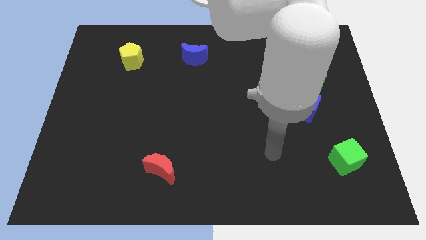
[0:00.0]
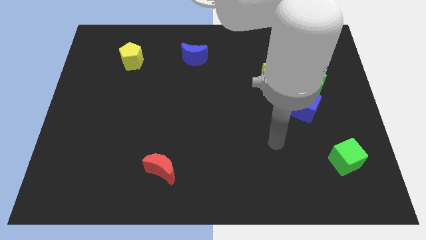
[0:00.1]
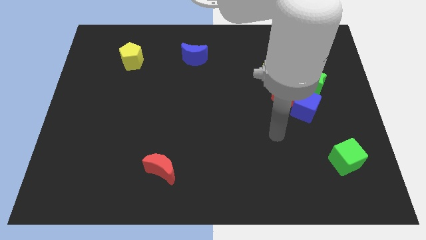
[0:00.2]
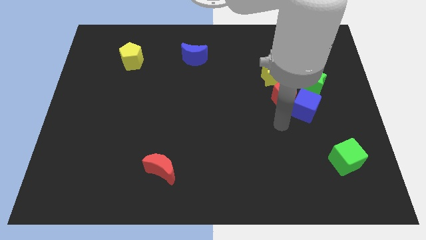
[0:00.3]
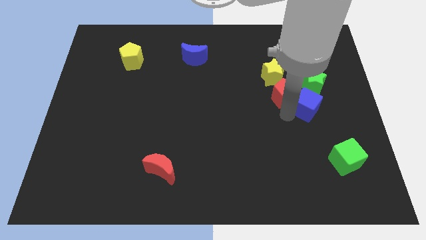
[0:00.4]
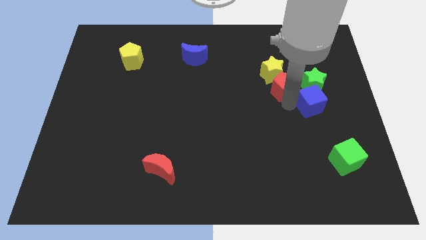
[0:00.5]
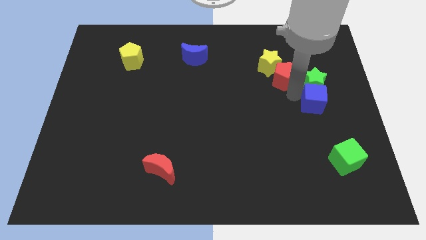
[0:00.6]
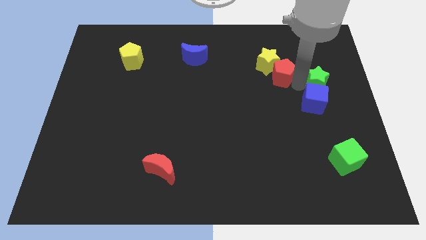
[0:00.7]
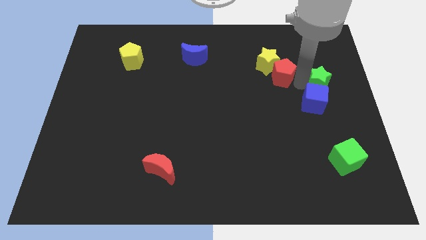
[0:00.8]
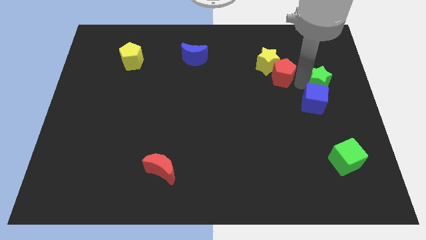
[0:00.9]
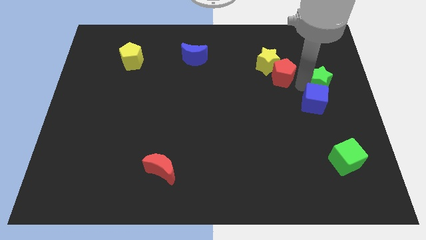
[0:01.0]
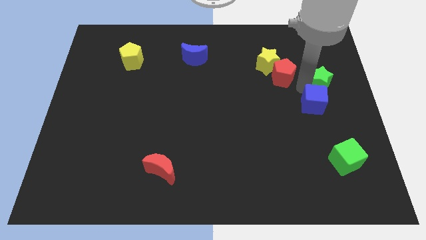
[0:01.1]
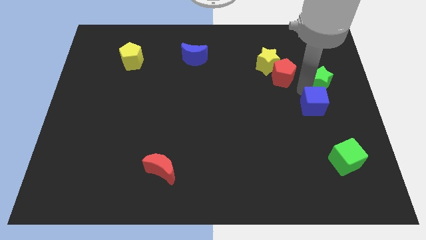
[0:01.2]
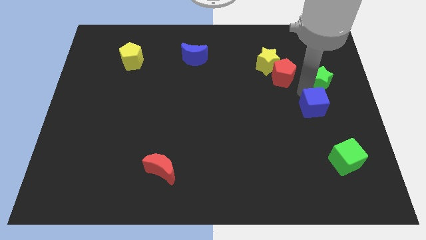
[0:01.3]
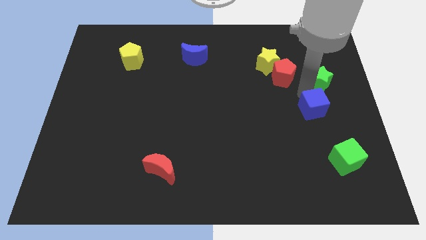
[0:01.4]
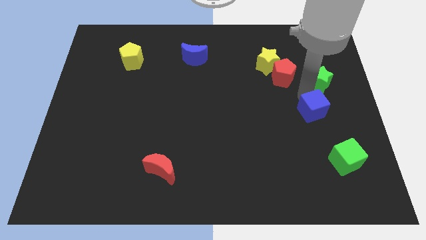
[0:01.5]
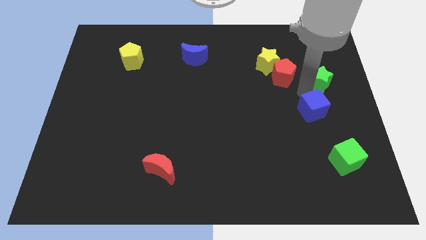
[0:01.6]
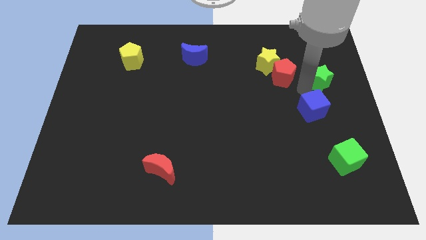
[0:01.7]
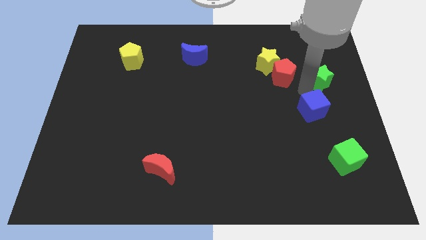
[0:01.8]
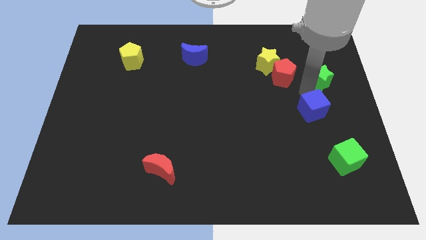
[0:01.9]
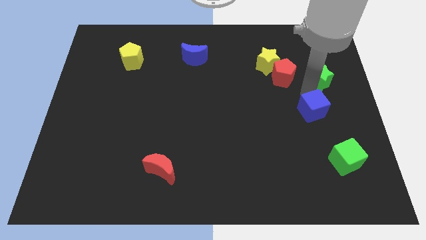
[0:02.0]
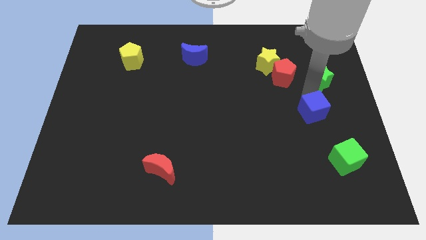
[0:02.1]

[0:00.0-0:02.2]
pull the blue cube apart from the red pentagon and green star

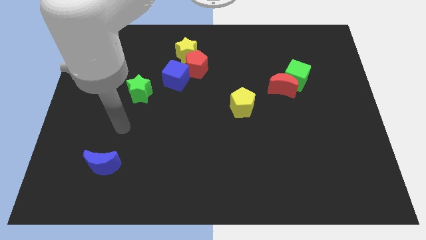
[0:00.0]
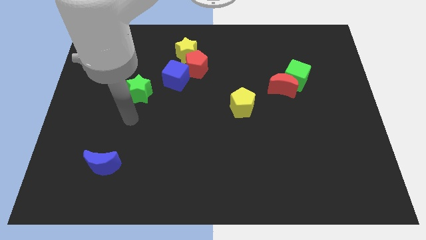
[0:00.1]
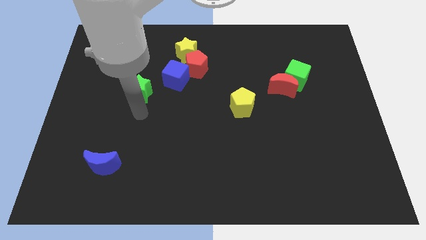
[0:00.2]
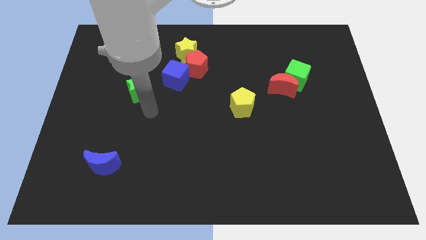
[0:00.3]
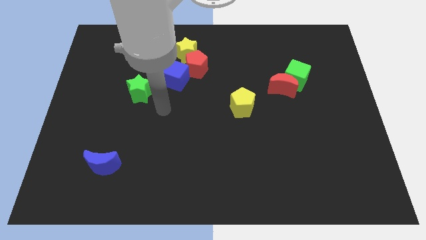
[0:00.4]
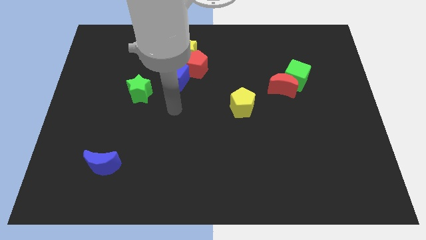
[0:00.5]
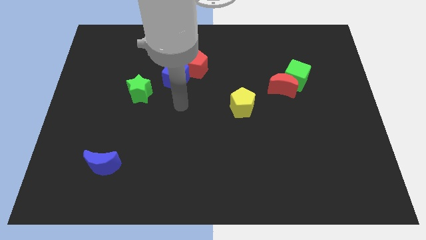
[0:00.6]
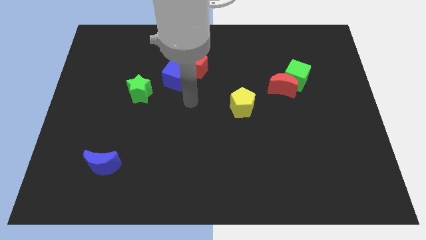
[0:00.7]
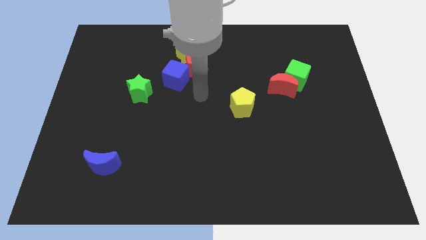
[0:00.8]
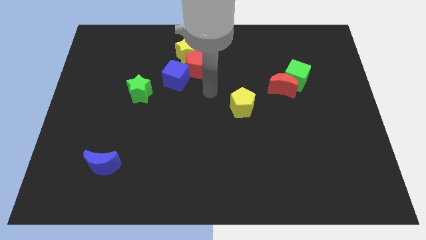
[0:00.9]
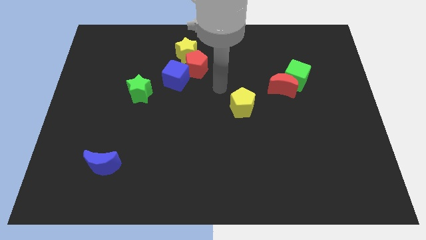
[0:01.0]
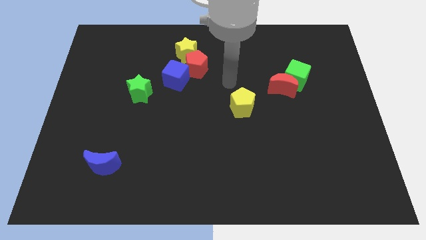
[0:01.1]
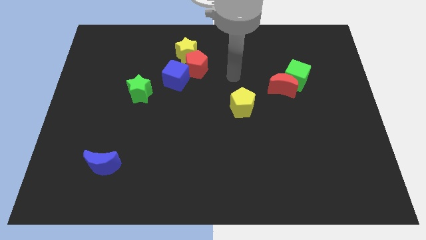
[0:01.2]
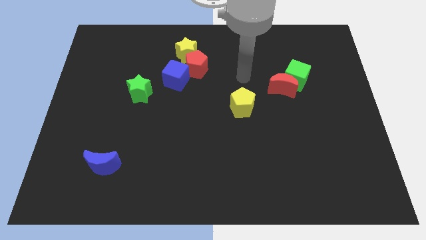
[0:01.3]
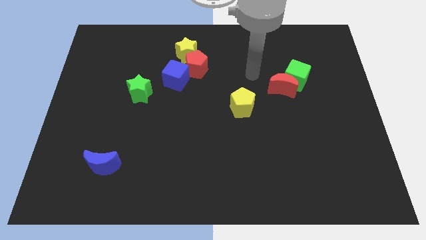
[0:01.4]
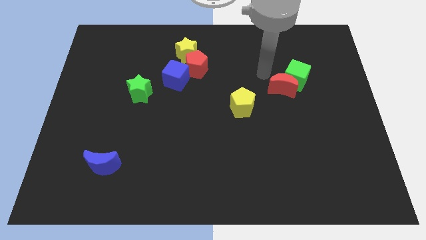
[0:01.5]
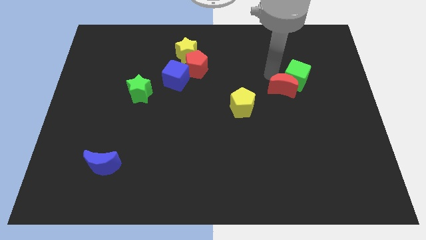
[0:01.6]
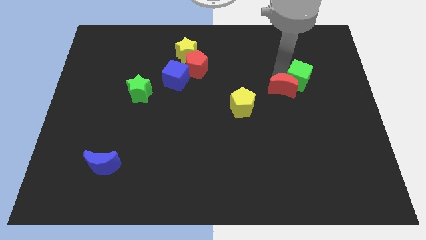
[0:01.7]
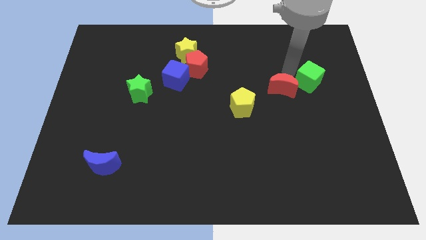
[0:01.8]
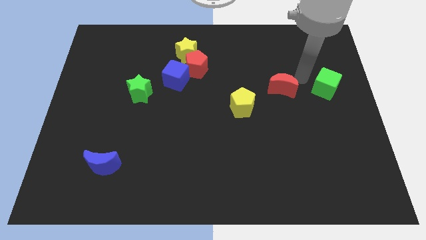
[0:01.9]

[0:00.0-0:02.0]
pull the red moon apart from the green cube

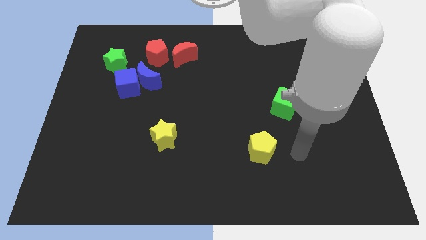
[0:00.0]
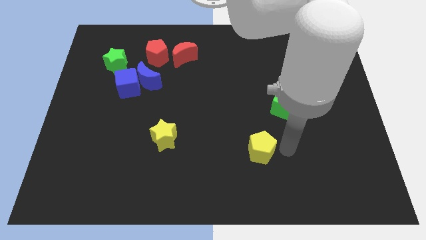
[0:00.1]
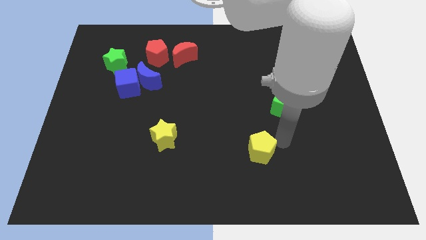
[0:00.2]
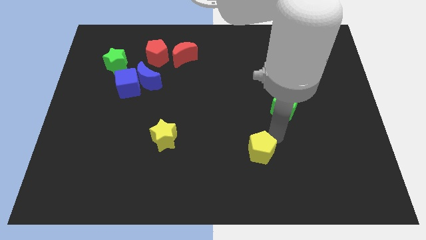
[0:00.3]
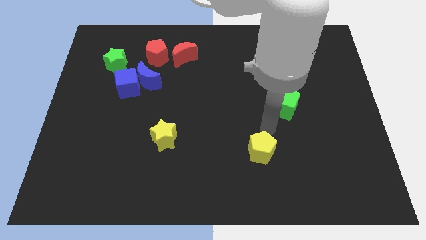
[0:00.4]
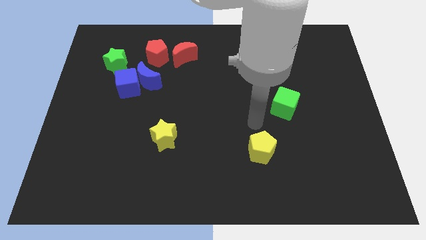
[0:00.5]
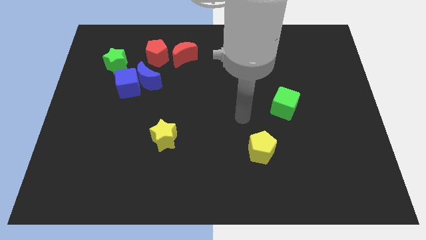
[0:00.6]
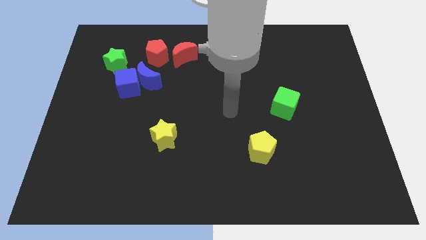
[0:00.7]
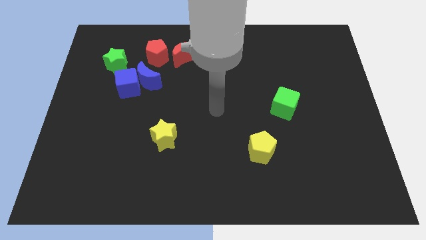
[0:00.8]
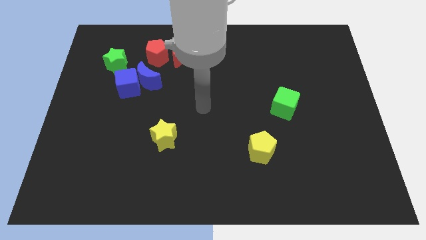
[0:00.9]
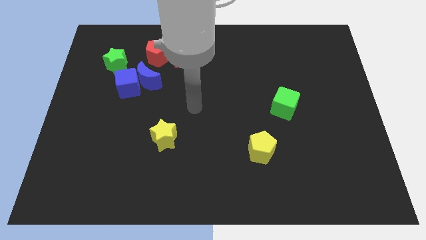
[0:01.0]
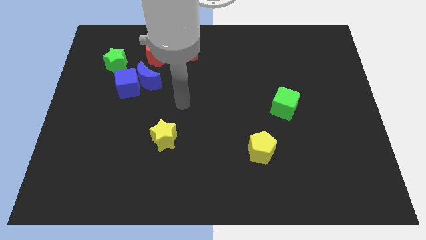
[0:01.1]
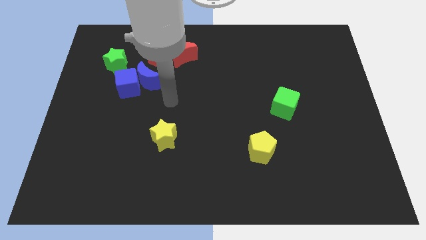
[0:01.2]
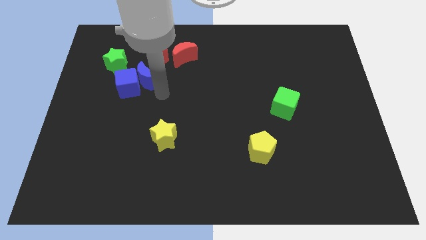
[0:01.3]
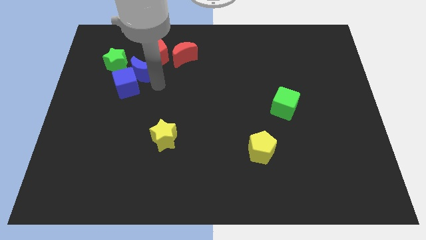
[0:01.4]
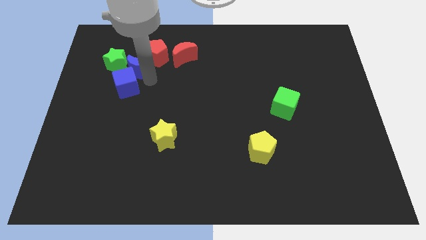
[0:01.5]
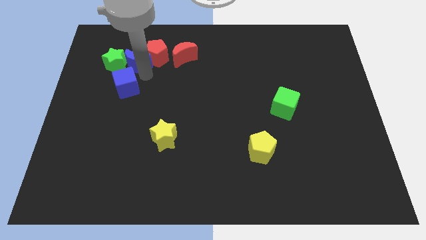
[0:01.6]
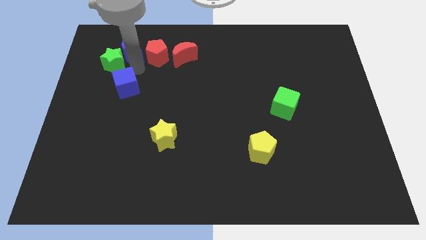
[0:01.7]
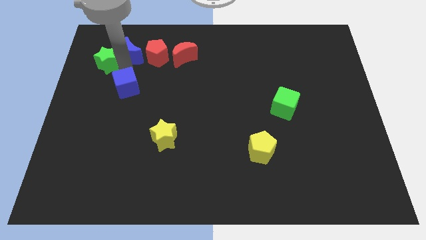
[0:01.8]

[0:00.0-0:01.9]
pull the blue cube apart from the blue moon and green star

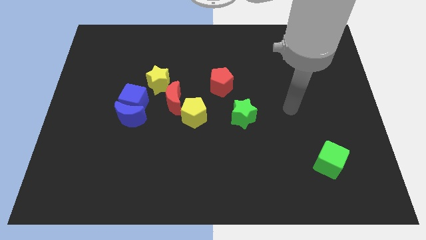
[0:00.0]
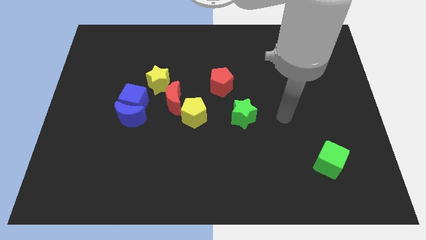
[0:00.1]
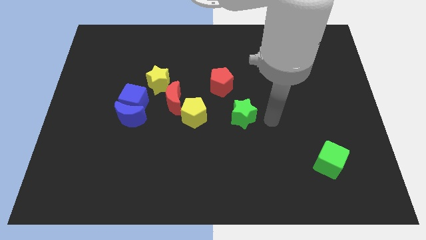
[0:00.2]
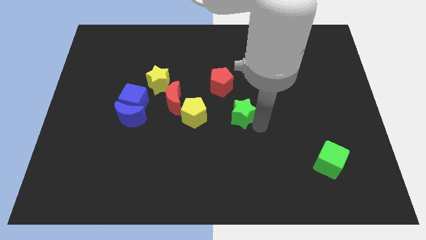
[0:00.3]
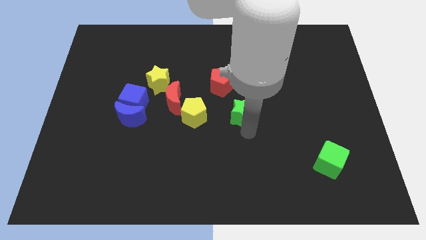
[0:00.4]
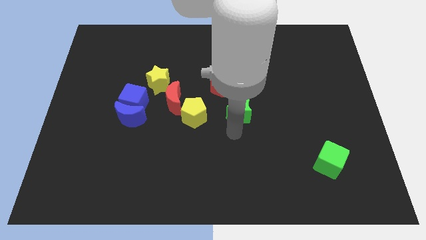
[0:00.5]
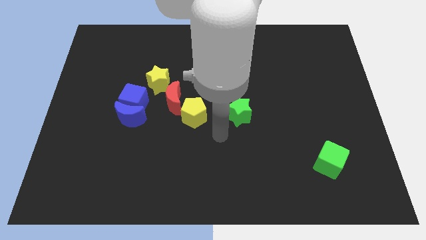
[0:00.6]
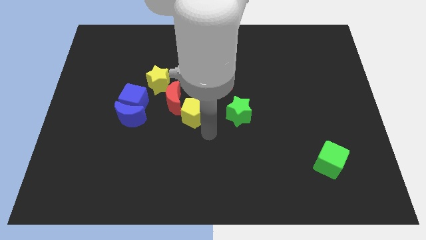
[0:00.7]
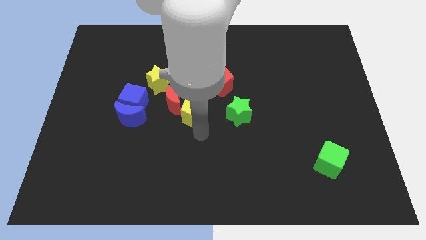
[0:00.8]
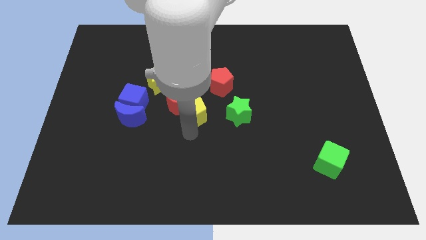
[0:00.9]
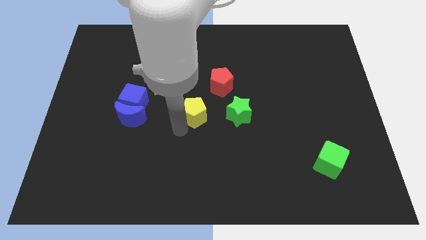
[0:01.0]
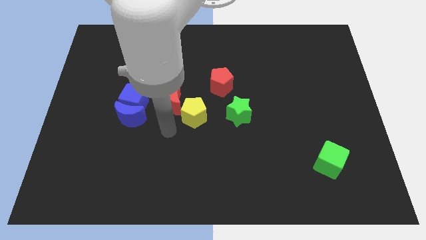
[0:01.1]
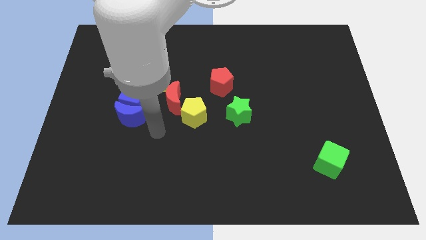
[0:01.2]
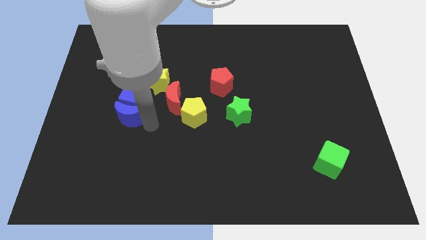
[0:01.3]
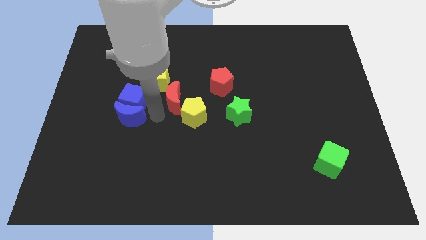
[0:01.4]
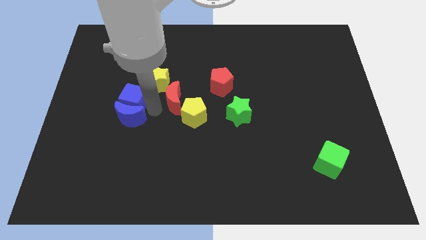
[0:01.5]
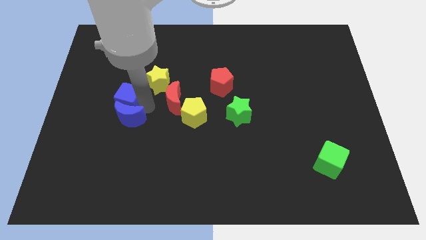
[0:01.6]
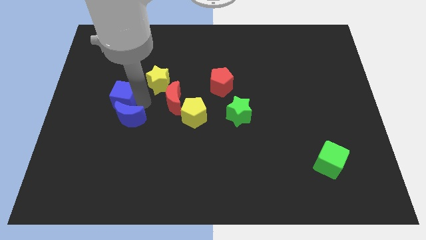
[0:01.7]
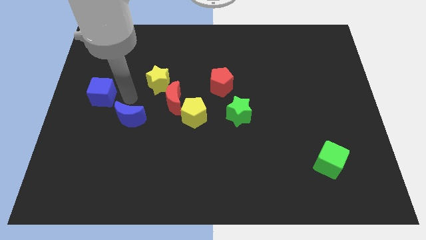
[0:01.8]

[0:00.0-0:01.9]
pull the blue moon apart from the blue cube

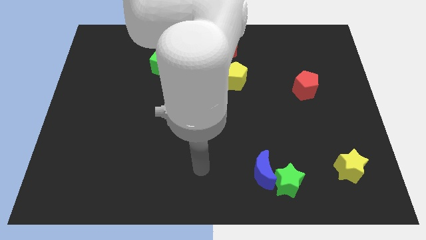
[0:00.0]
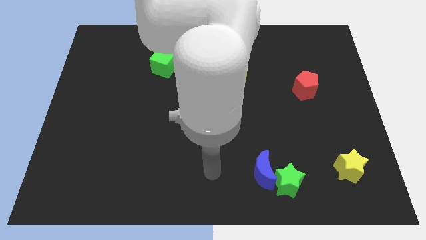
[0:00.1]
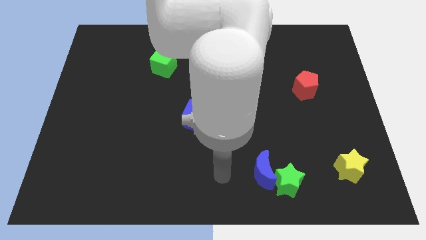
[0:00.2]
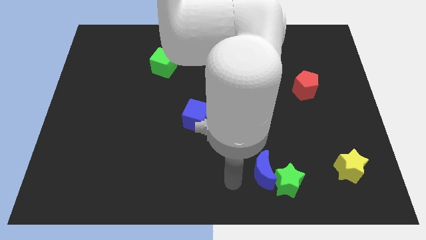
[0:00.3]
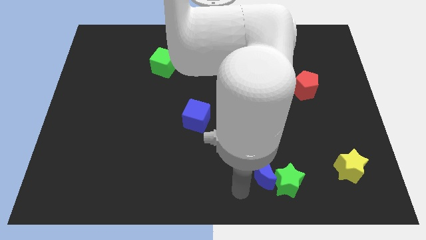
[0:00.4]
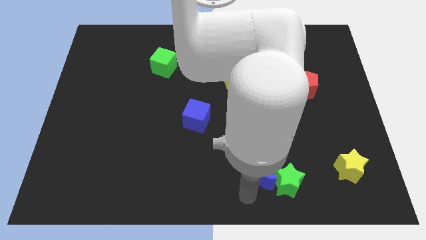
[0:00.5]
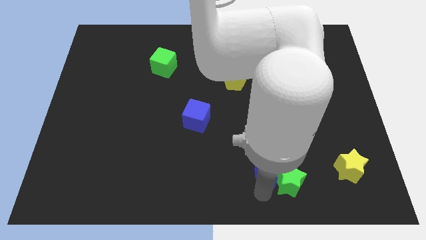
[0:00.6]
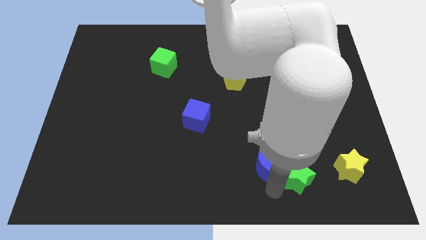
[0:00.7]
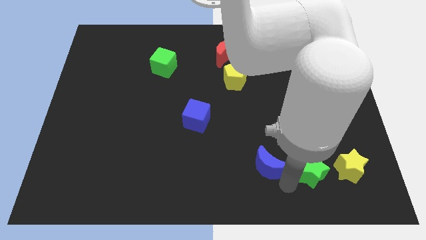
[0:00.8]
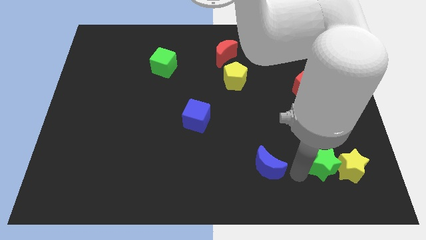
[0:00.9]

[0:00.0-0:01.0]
move the blue moon away from the green star

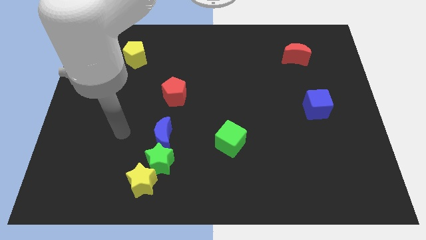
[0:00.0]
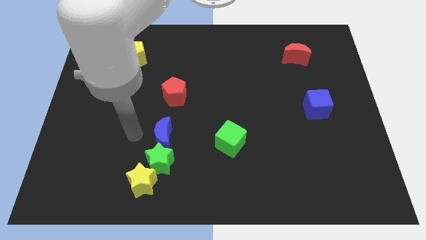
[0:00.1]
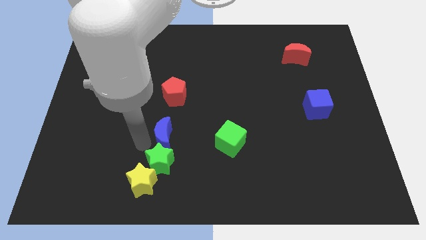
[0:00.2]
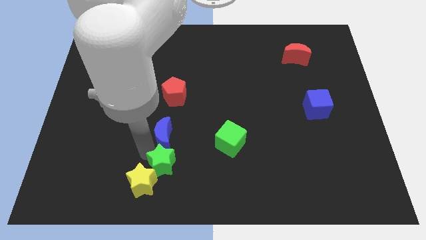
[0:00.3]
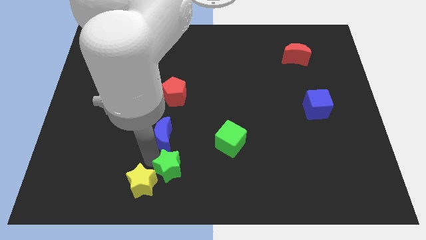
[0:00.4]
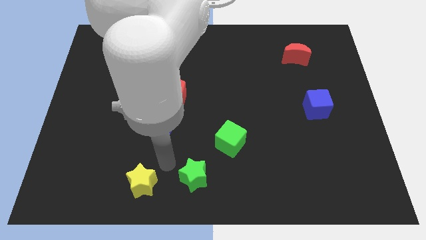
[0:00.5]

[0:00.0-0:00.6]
separate the blue moon from the green star
